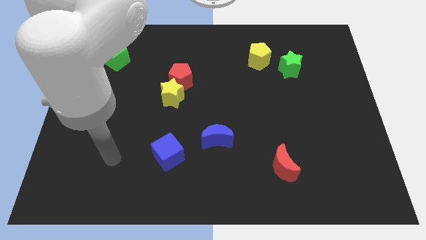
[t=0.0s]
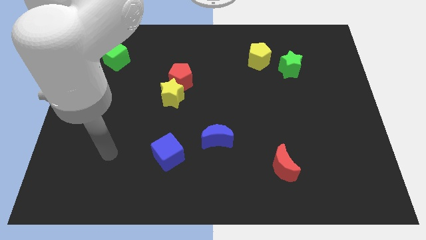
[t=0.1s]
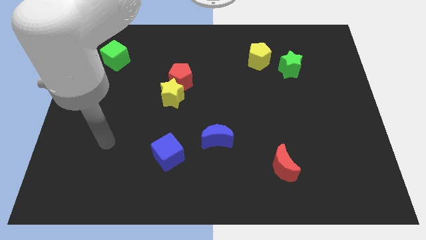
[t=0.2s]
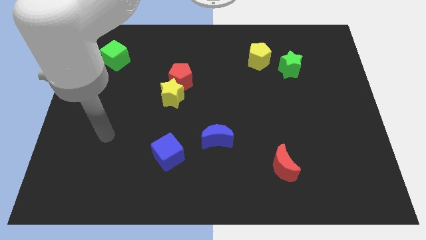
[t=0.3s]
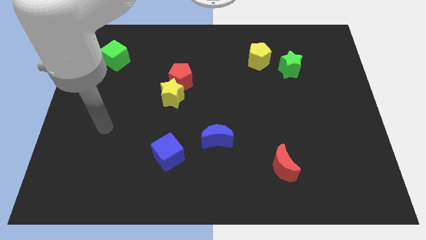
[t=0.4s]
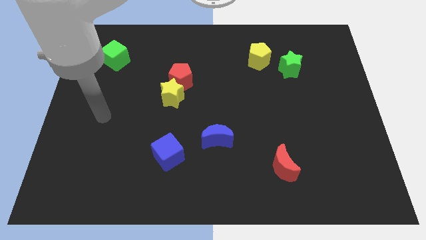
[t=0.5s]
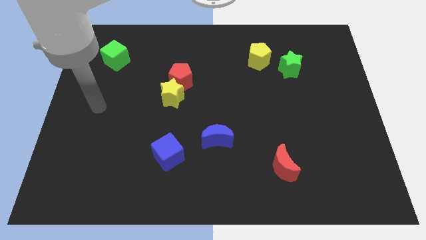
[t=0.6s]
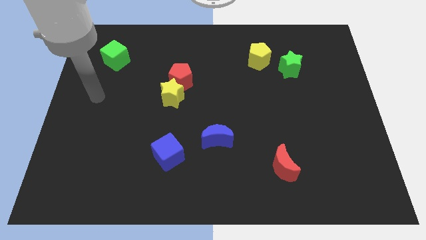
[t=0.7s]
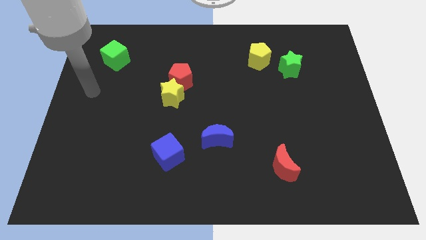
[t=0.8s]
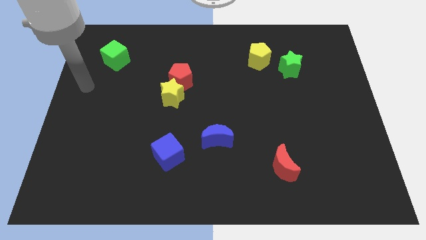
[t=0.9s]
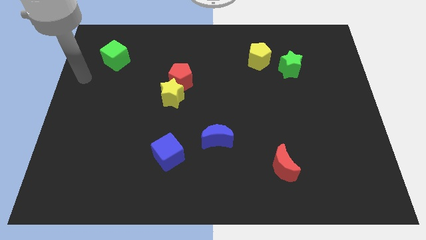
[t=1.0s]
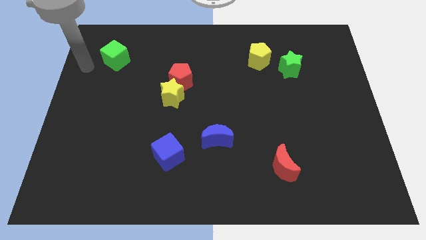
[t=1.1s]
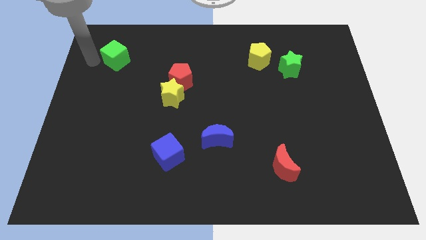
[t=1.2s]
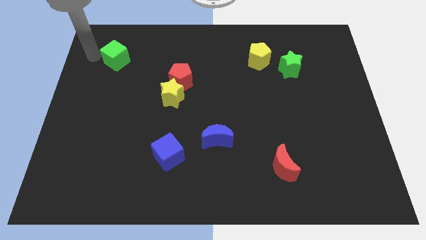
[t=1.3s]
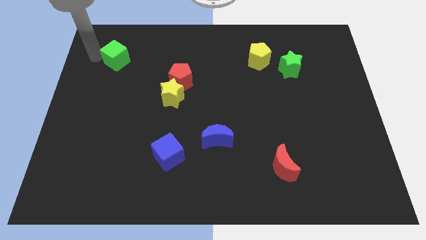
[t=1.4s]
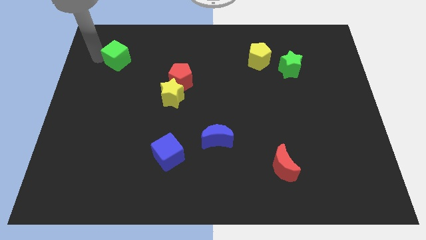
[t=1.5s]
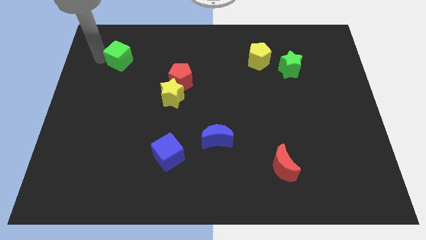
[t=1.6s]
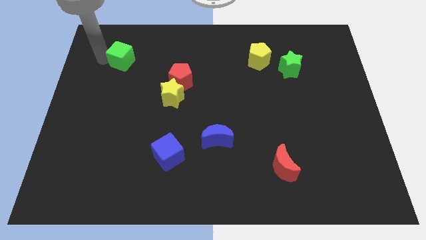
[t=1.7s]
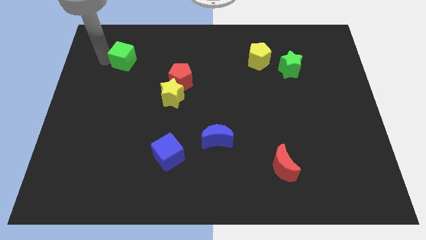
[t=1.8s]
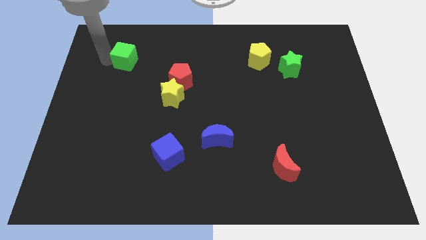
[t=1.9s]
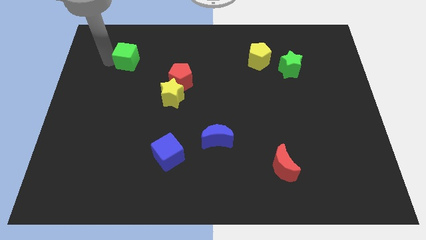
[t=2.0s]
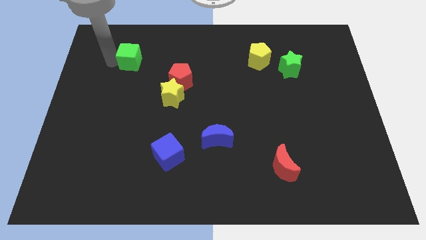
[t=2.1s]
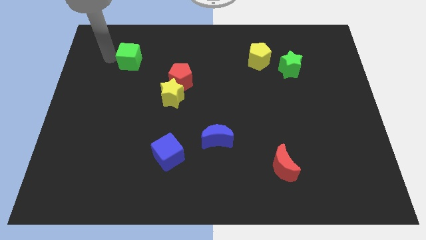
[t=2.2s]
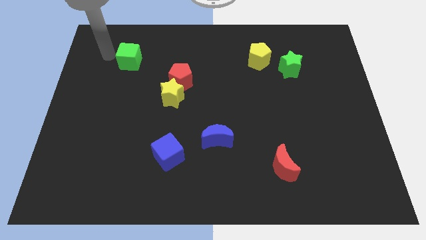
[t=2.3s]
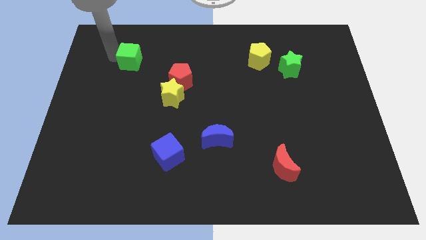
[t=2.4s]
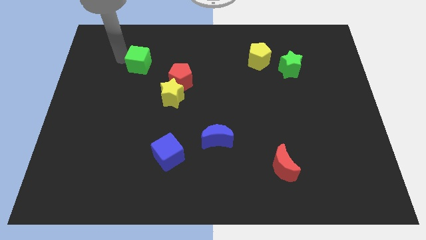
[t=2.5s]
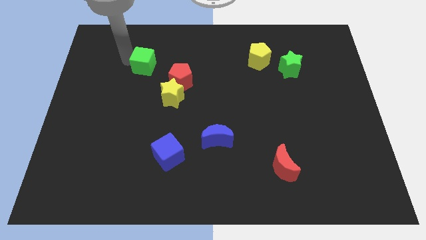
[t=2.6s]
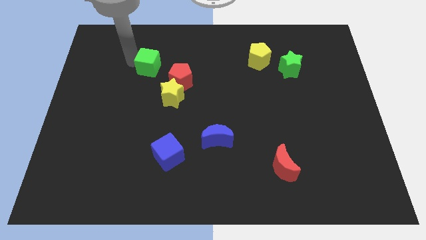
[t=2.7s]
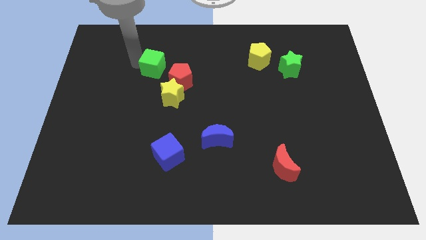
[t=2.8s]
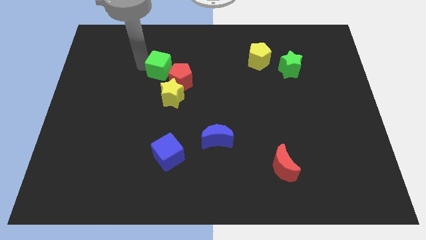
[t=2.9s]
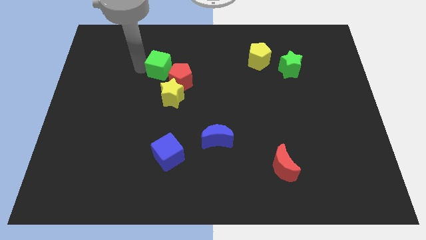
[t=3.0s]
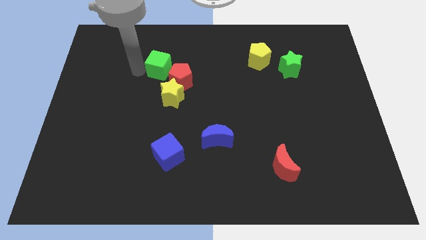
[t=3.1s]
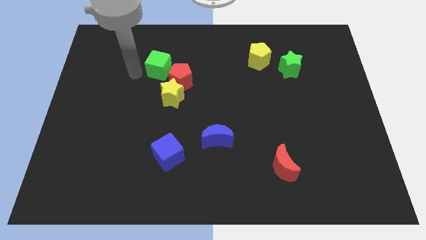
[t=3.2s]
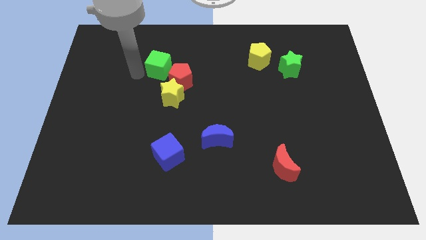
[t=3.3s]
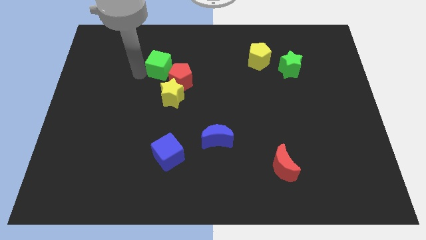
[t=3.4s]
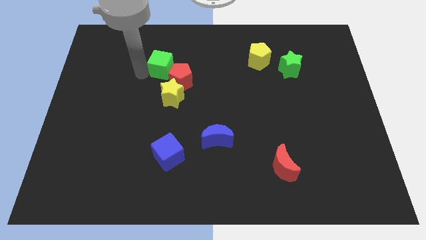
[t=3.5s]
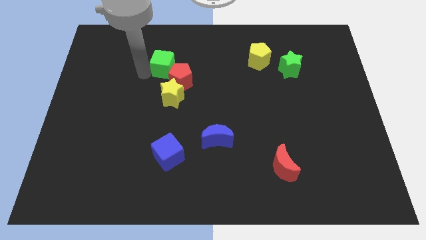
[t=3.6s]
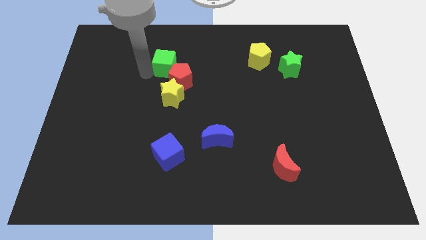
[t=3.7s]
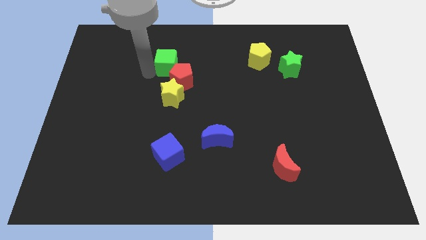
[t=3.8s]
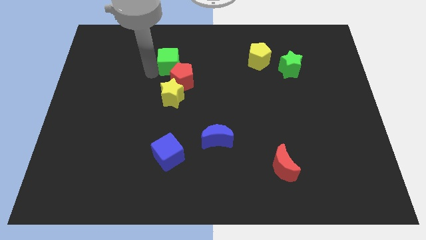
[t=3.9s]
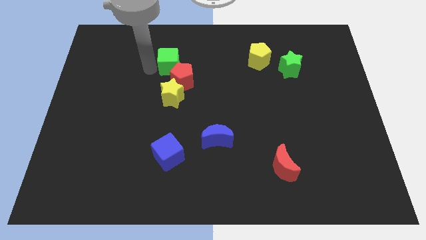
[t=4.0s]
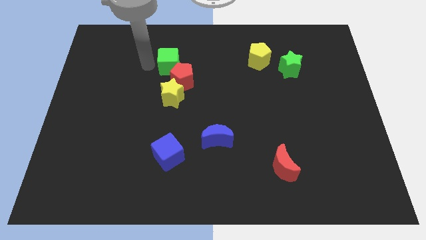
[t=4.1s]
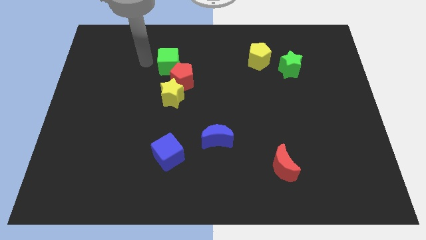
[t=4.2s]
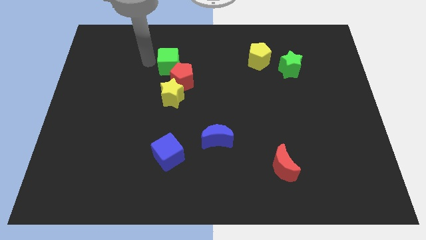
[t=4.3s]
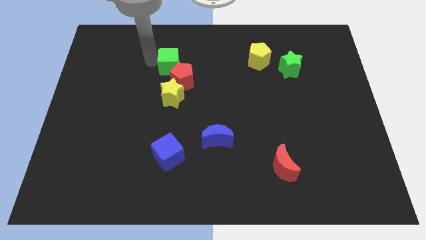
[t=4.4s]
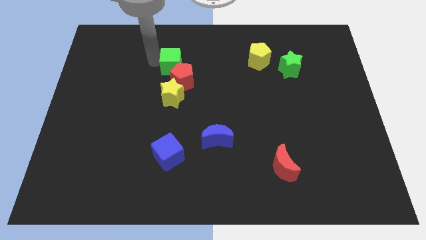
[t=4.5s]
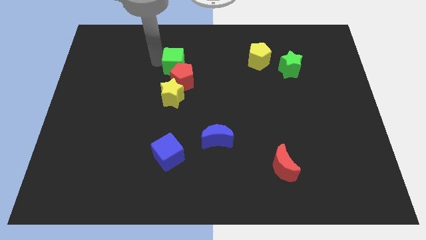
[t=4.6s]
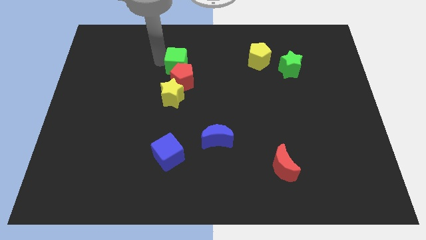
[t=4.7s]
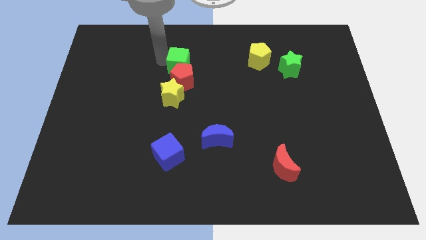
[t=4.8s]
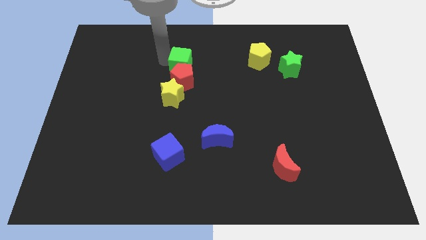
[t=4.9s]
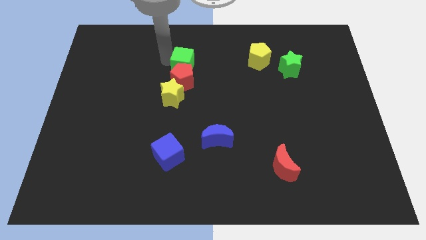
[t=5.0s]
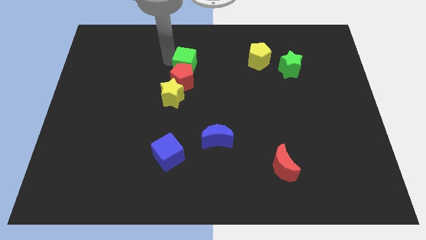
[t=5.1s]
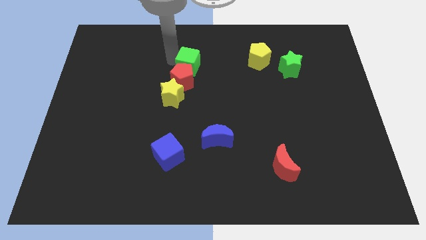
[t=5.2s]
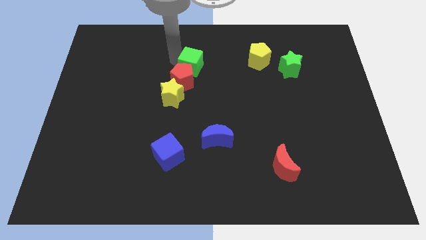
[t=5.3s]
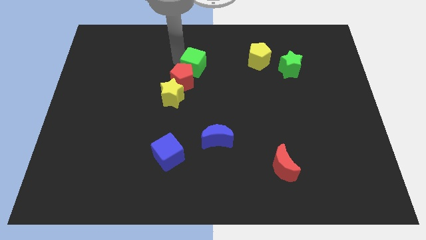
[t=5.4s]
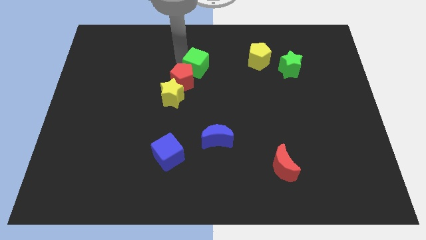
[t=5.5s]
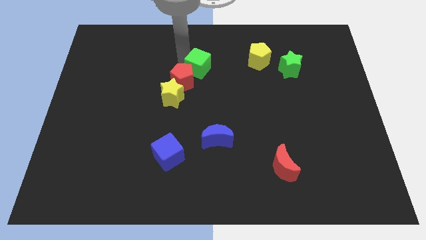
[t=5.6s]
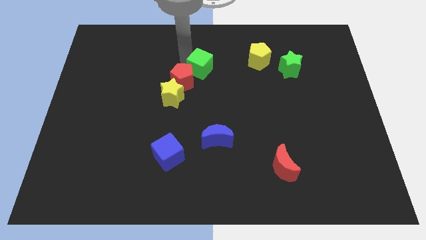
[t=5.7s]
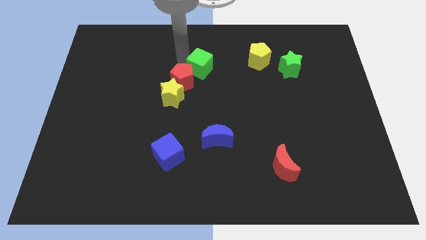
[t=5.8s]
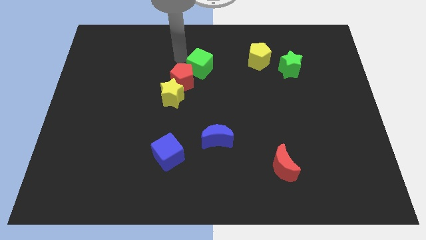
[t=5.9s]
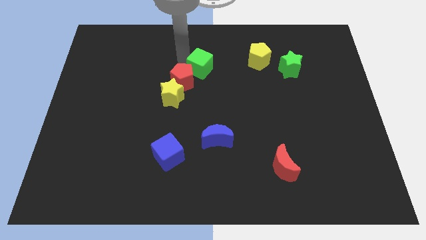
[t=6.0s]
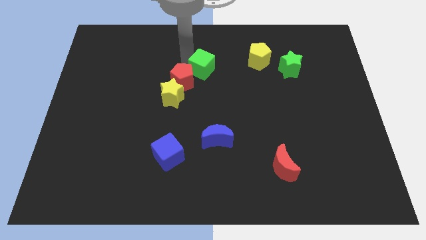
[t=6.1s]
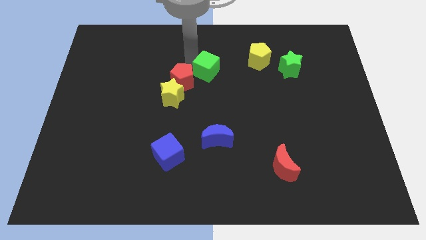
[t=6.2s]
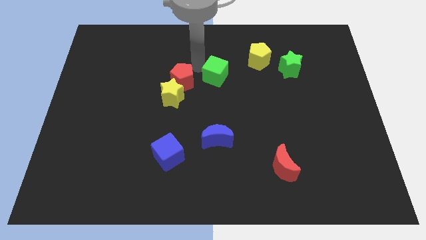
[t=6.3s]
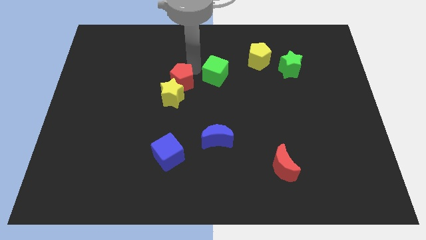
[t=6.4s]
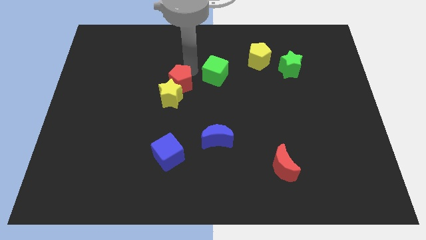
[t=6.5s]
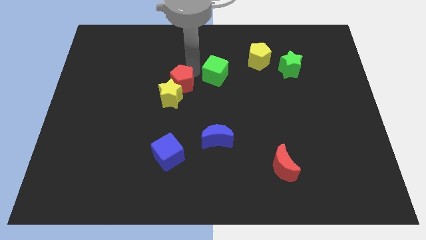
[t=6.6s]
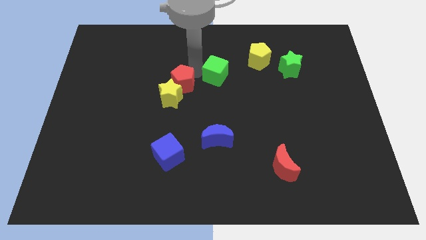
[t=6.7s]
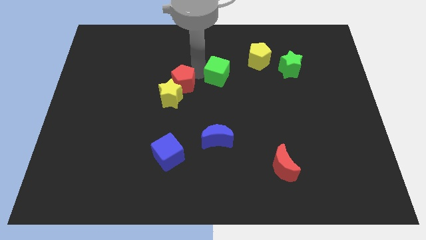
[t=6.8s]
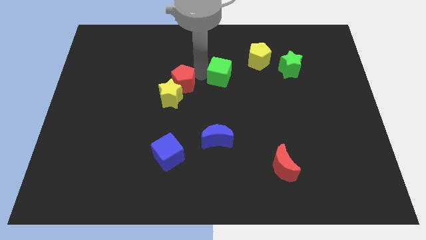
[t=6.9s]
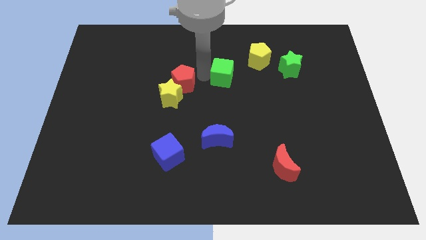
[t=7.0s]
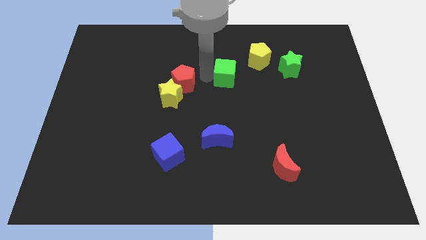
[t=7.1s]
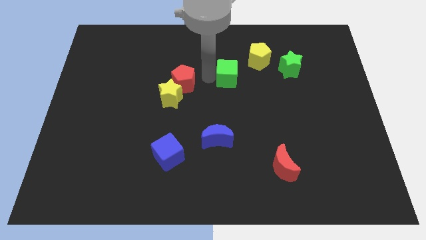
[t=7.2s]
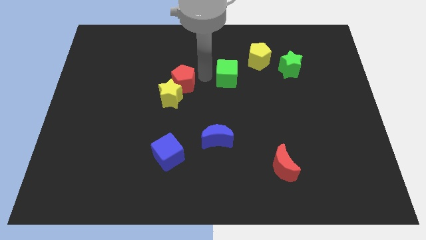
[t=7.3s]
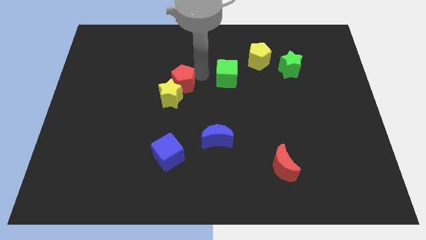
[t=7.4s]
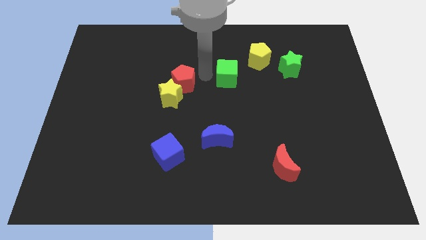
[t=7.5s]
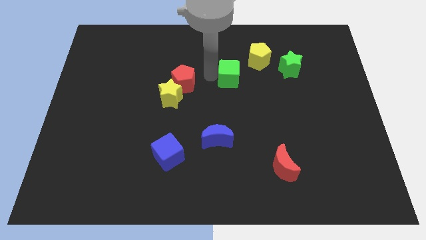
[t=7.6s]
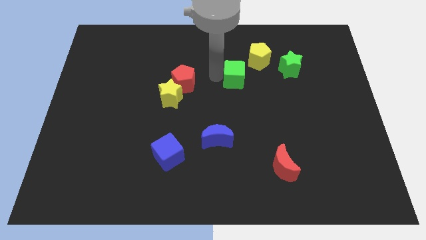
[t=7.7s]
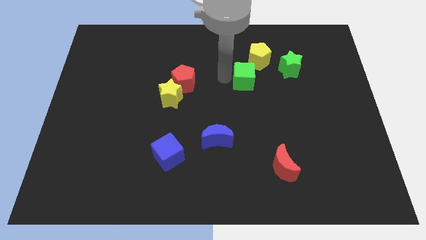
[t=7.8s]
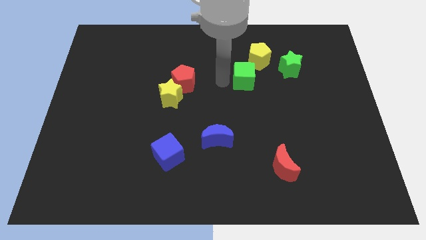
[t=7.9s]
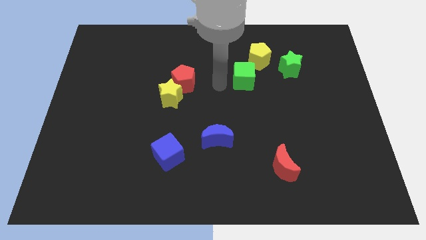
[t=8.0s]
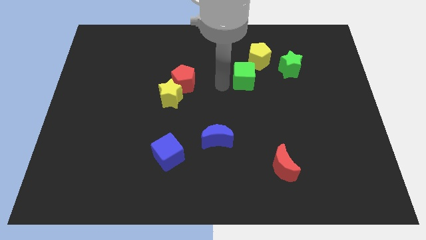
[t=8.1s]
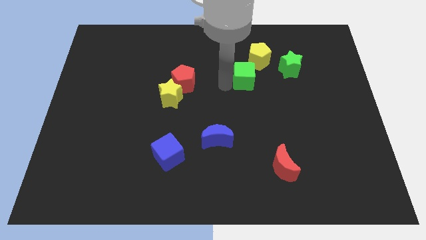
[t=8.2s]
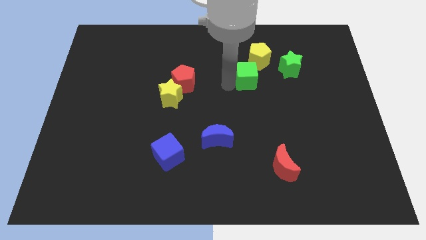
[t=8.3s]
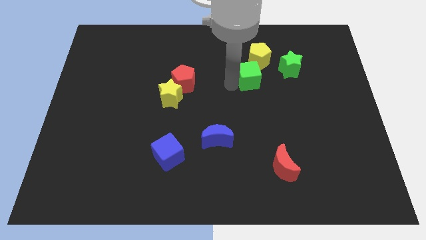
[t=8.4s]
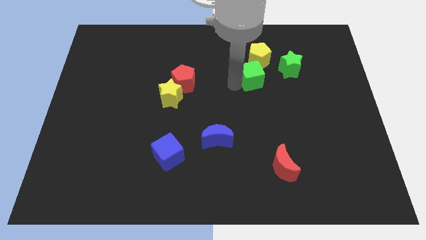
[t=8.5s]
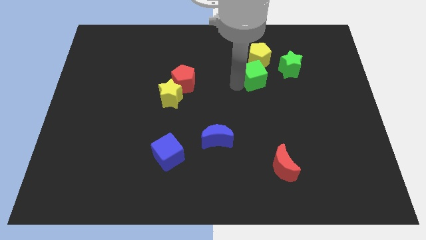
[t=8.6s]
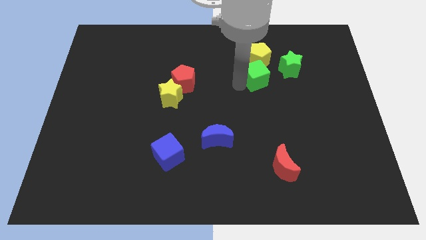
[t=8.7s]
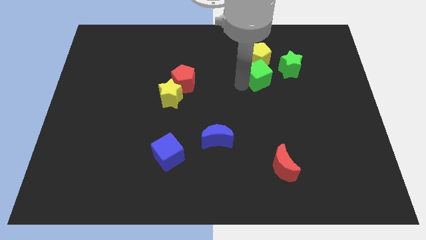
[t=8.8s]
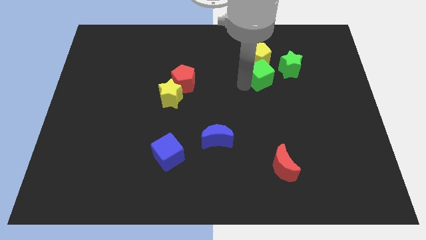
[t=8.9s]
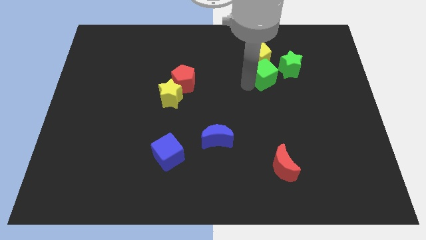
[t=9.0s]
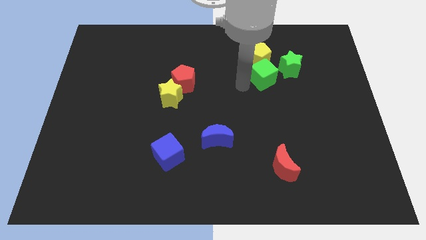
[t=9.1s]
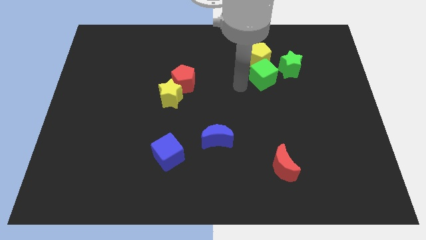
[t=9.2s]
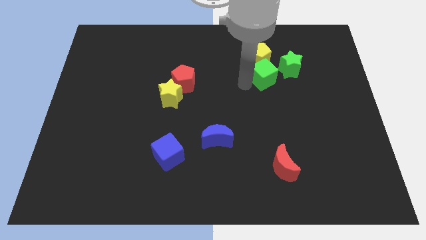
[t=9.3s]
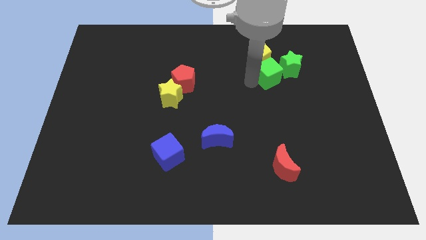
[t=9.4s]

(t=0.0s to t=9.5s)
push the green cube close to the green star
